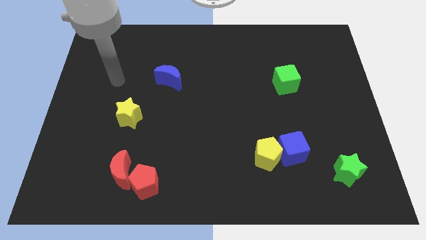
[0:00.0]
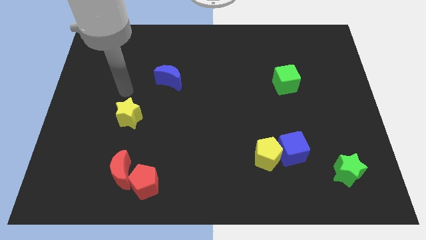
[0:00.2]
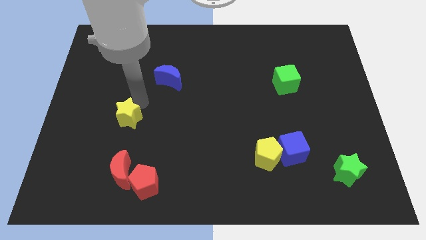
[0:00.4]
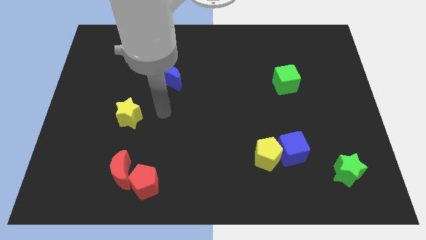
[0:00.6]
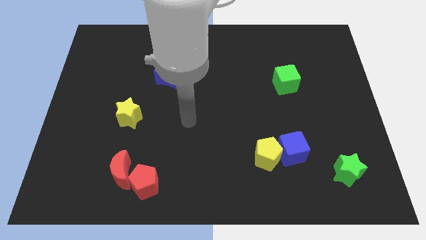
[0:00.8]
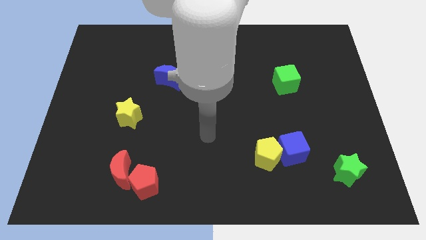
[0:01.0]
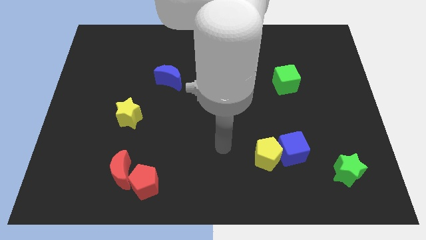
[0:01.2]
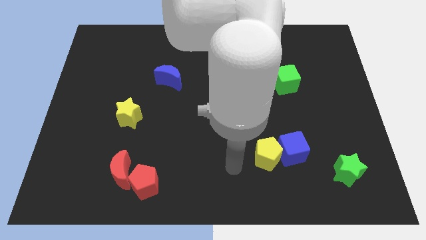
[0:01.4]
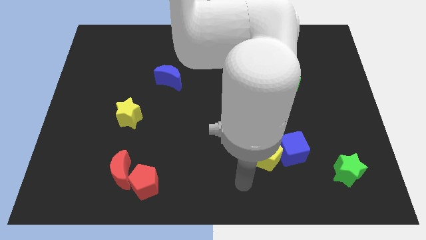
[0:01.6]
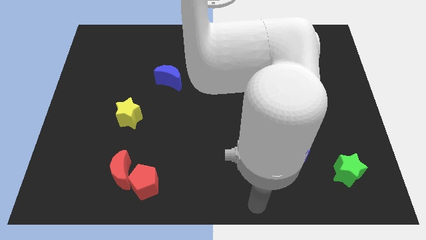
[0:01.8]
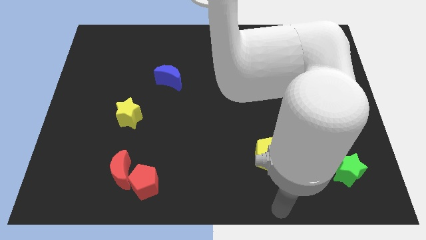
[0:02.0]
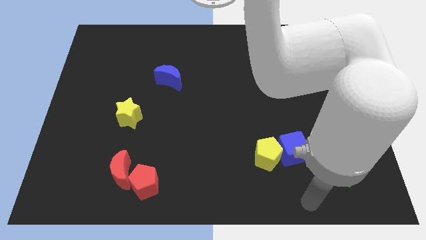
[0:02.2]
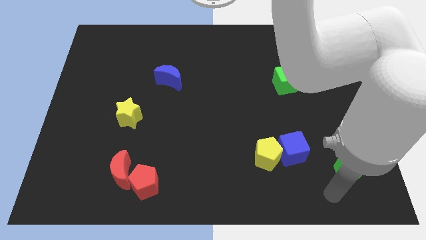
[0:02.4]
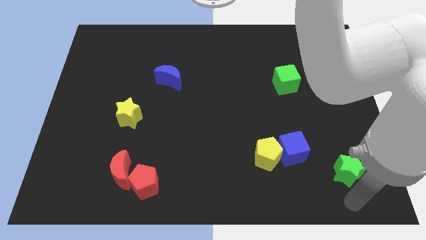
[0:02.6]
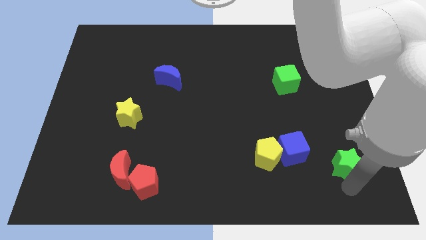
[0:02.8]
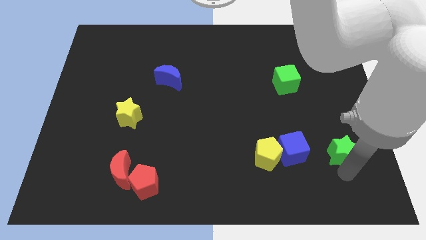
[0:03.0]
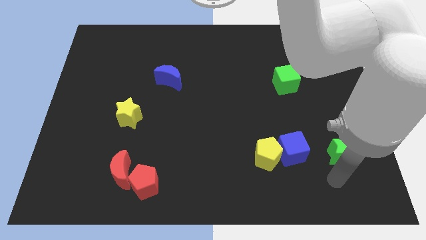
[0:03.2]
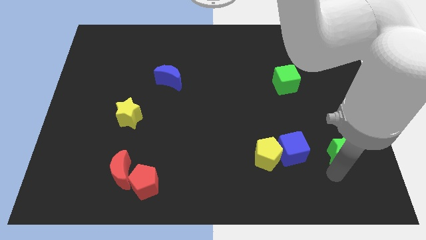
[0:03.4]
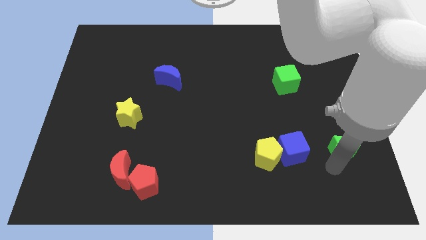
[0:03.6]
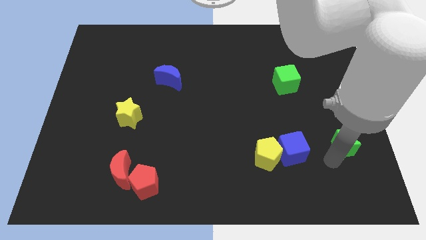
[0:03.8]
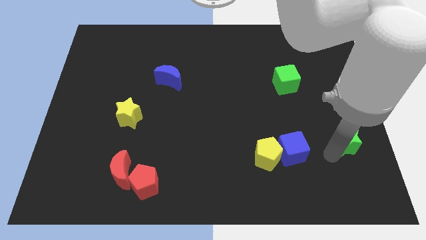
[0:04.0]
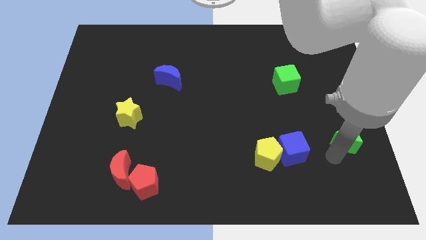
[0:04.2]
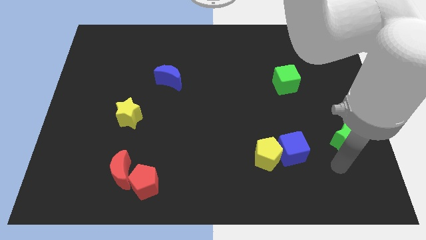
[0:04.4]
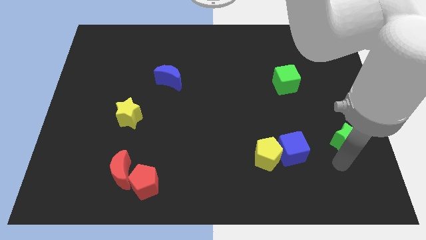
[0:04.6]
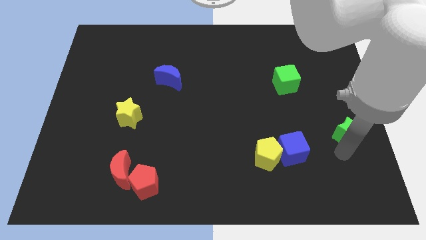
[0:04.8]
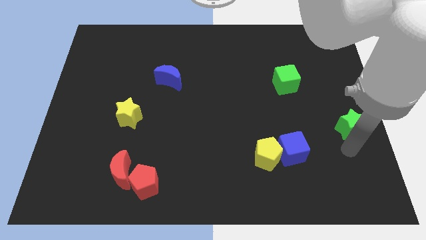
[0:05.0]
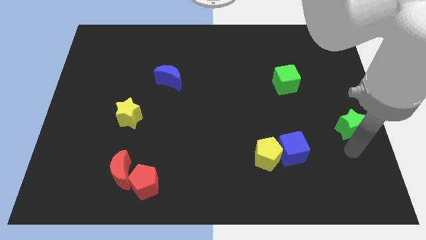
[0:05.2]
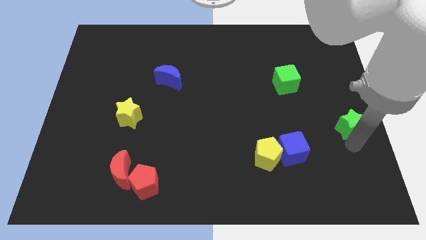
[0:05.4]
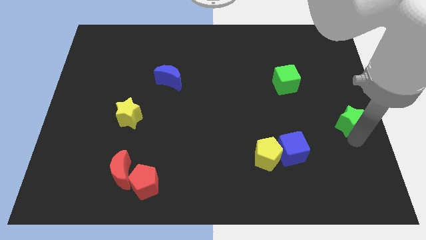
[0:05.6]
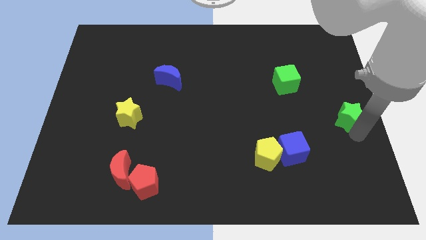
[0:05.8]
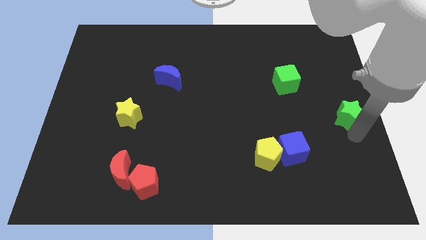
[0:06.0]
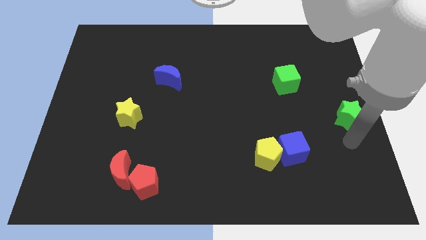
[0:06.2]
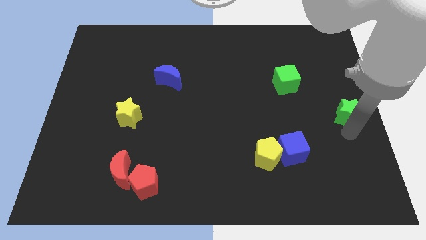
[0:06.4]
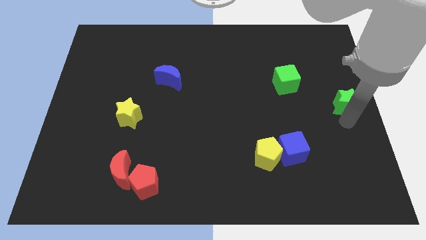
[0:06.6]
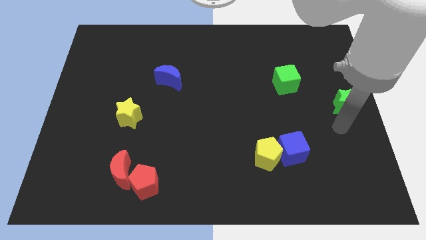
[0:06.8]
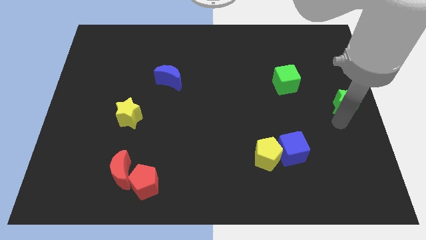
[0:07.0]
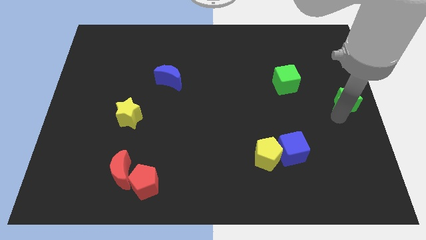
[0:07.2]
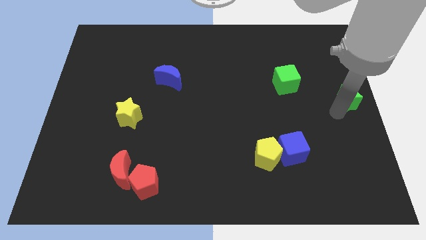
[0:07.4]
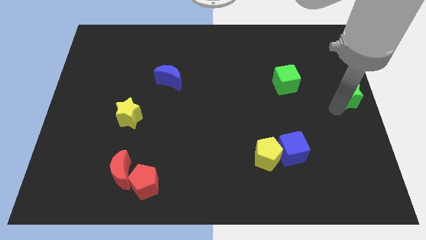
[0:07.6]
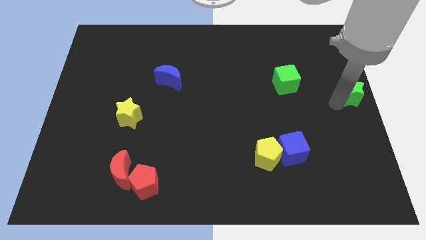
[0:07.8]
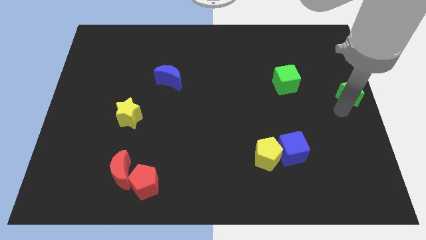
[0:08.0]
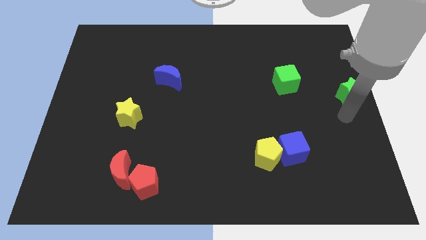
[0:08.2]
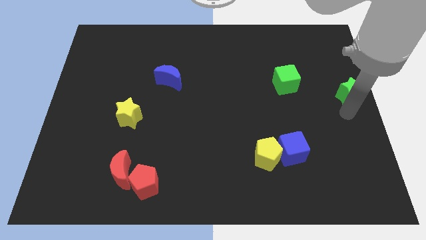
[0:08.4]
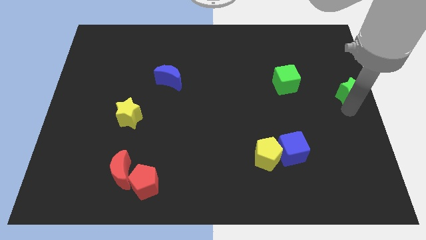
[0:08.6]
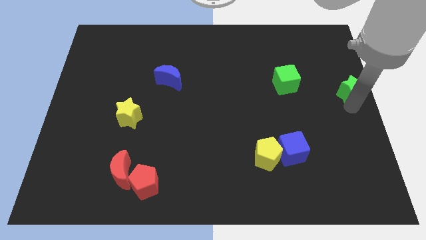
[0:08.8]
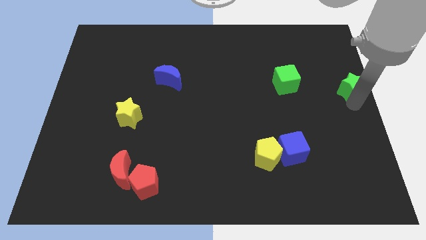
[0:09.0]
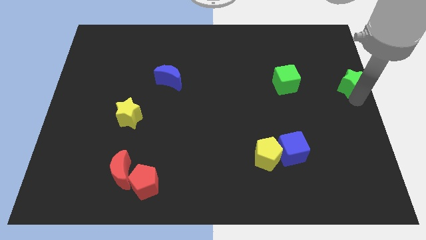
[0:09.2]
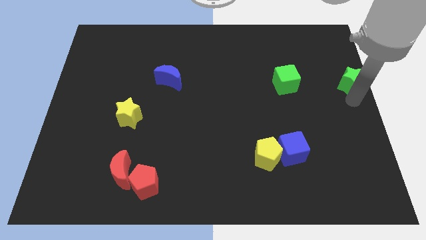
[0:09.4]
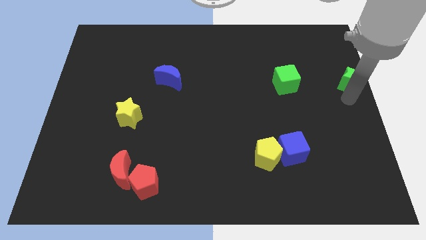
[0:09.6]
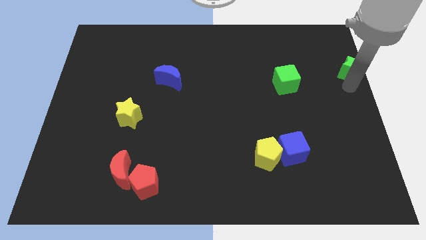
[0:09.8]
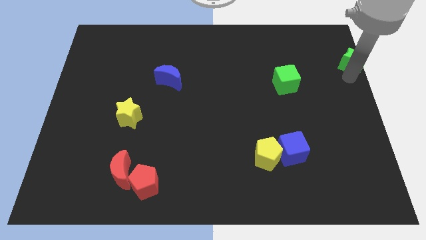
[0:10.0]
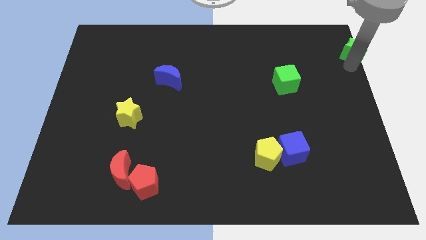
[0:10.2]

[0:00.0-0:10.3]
slide the green star to the top right

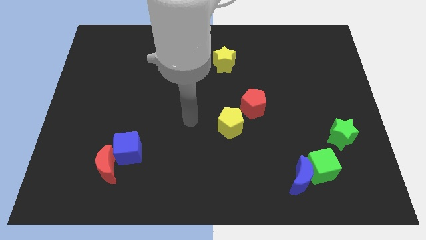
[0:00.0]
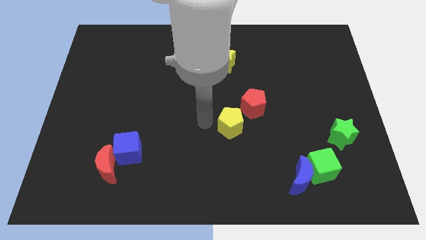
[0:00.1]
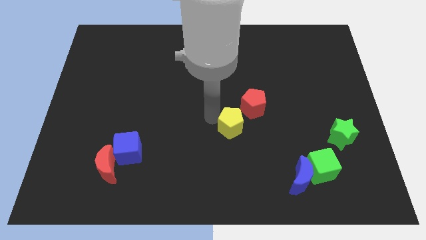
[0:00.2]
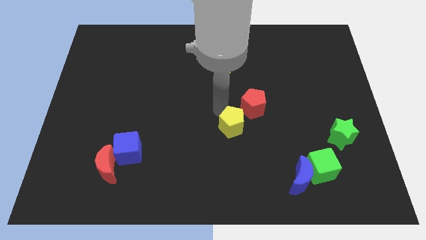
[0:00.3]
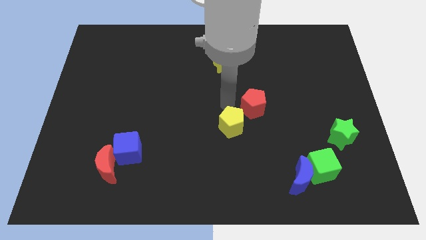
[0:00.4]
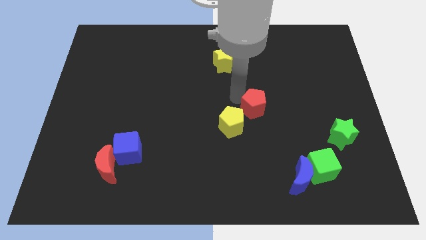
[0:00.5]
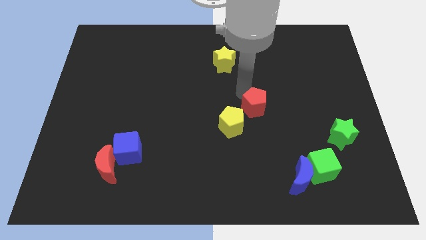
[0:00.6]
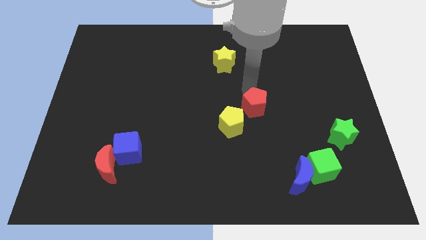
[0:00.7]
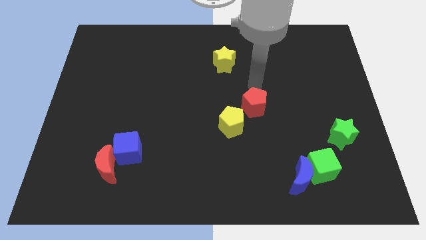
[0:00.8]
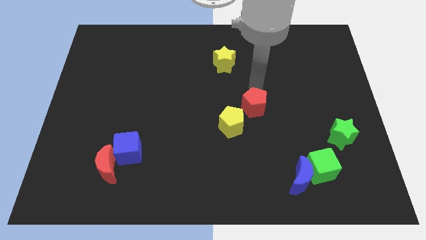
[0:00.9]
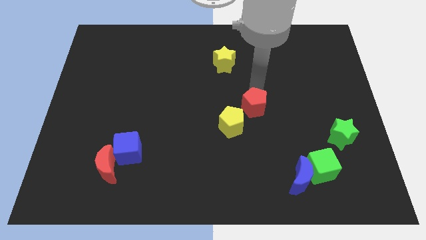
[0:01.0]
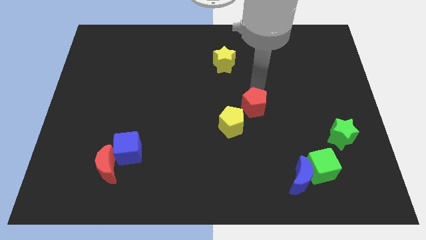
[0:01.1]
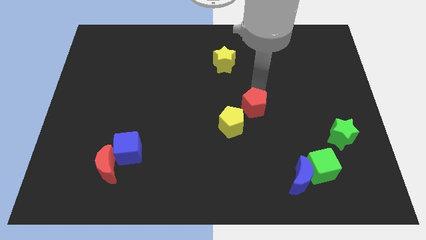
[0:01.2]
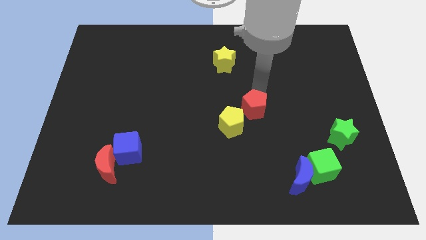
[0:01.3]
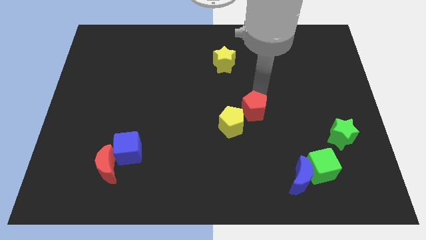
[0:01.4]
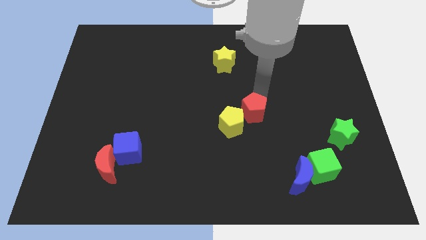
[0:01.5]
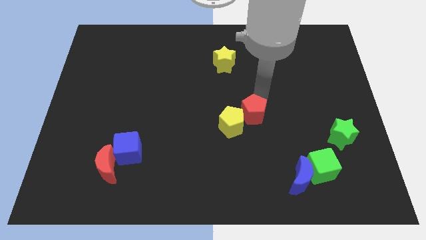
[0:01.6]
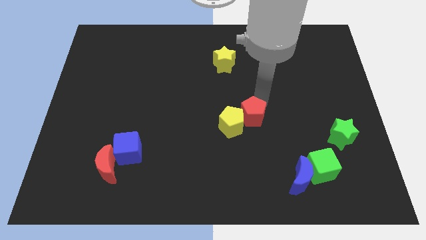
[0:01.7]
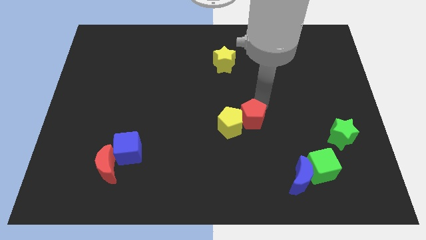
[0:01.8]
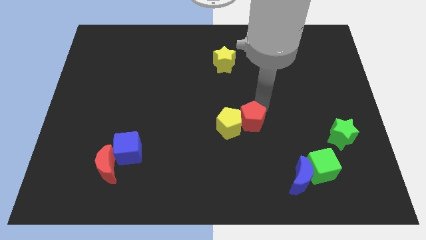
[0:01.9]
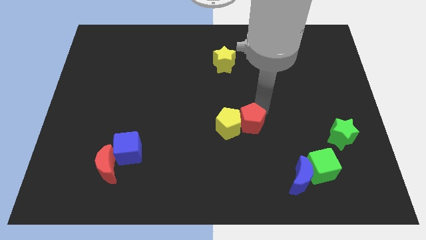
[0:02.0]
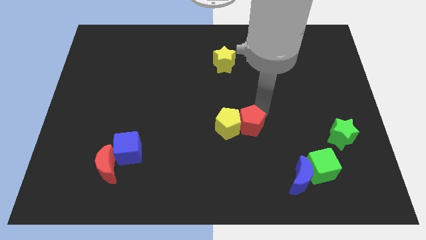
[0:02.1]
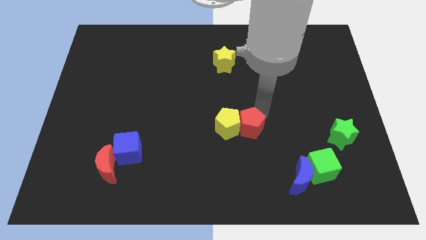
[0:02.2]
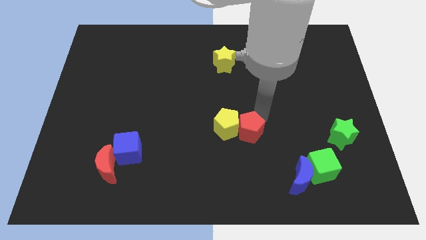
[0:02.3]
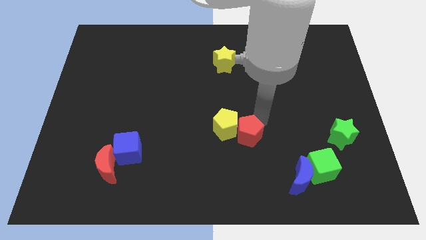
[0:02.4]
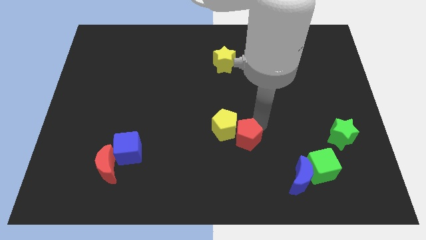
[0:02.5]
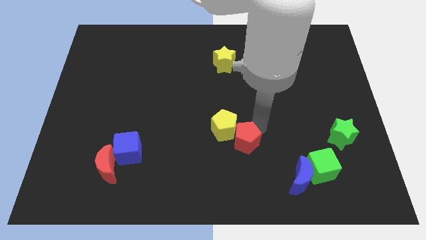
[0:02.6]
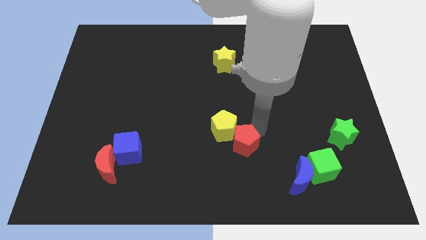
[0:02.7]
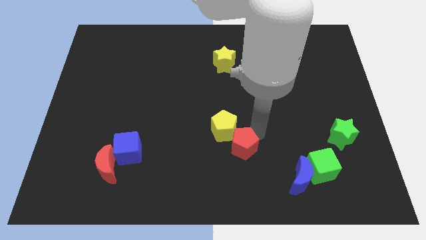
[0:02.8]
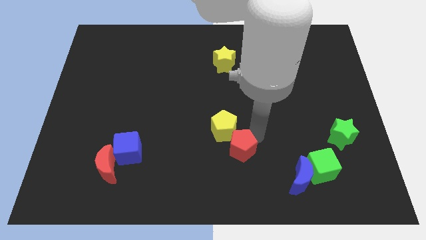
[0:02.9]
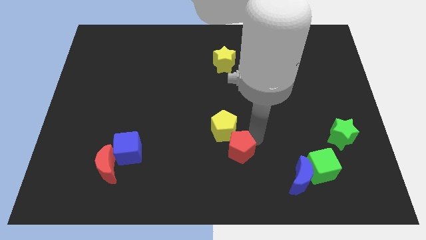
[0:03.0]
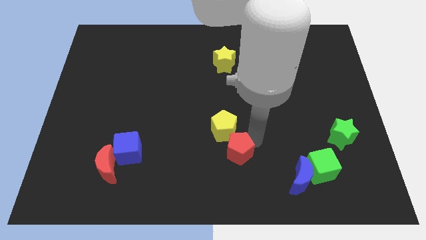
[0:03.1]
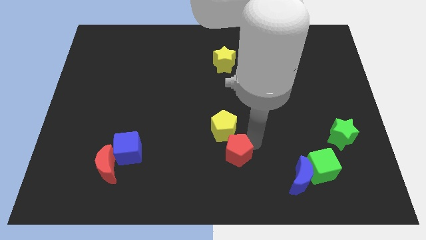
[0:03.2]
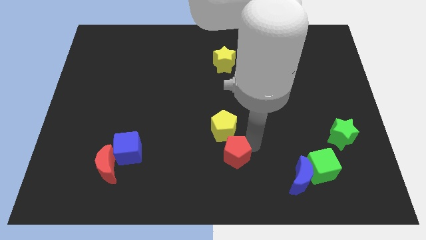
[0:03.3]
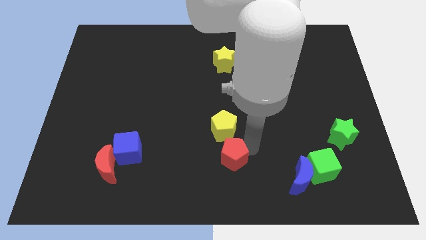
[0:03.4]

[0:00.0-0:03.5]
push the red pentagon to the bottom
